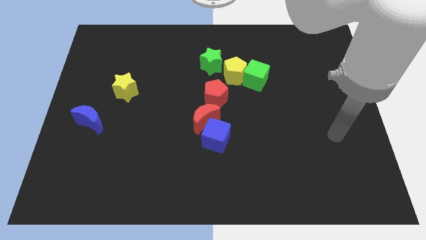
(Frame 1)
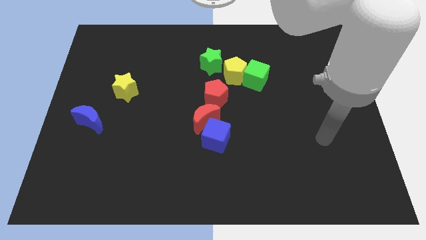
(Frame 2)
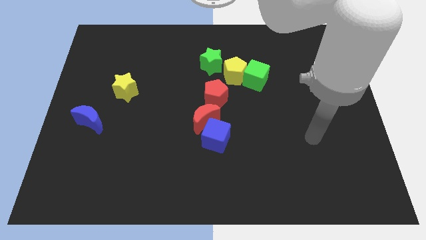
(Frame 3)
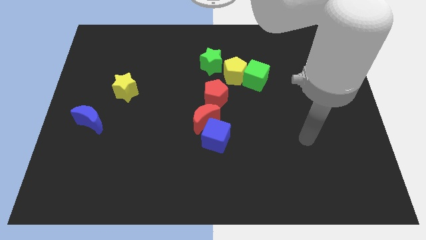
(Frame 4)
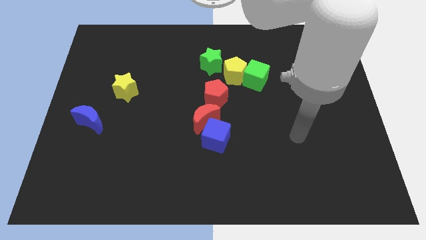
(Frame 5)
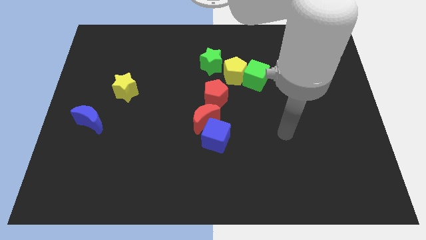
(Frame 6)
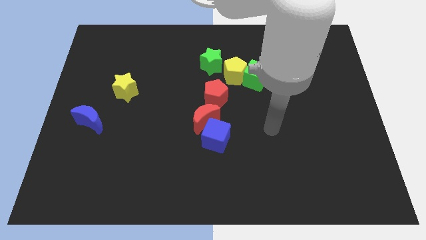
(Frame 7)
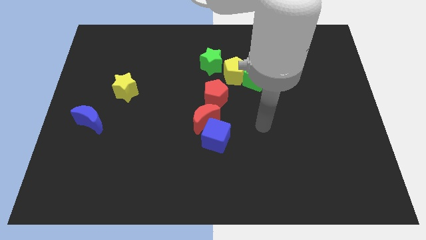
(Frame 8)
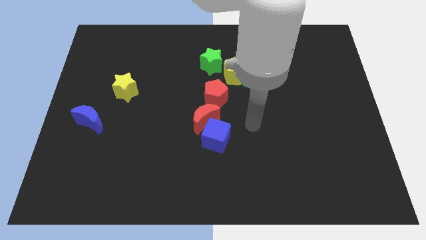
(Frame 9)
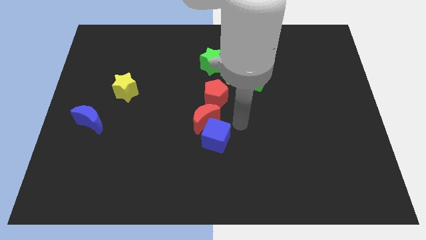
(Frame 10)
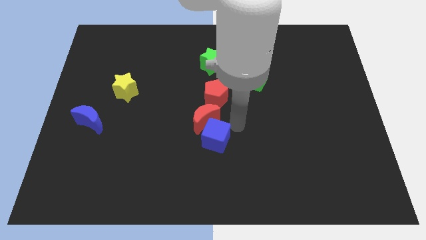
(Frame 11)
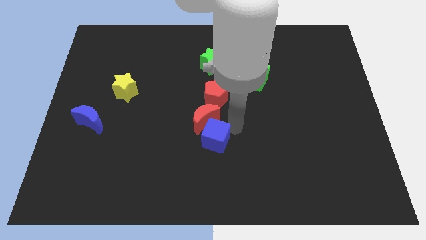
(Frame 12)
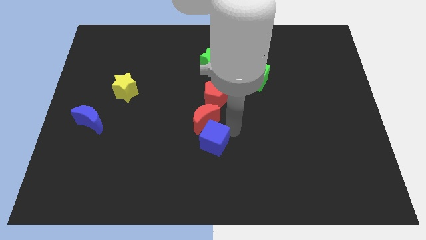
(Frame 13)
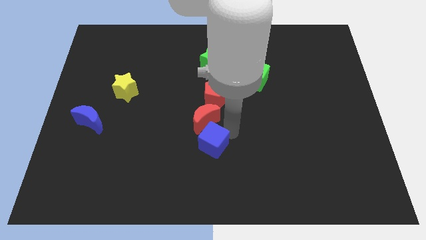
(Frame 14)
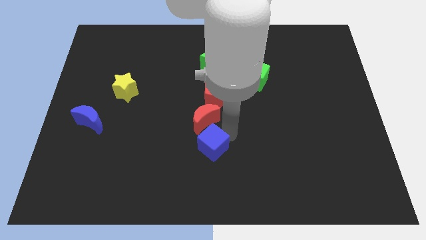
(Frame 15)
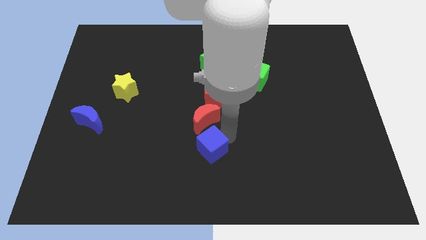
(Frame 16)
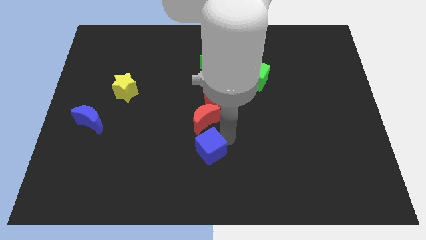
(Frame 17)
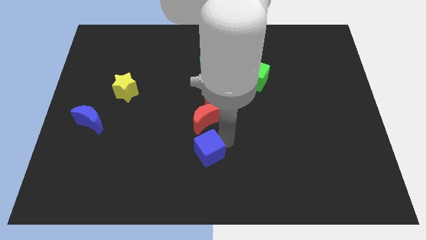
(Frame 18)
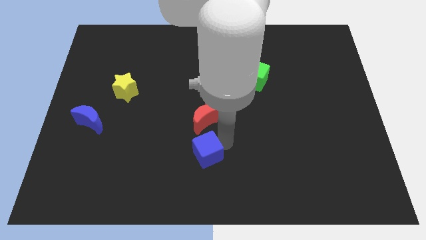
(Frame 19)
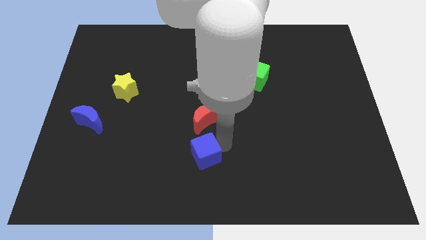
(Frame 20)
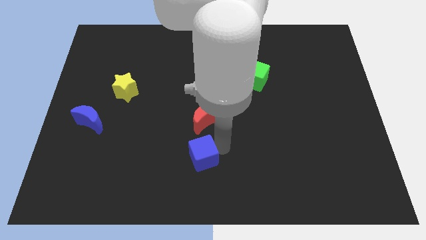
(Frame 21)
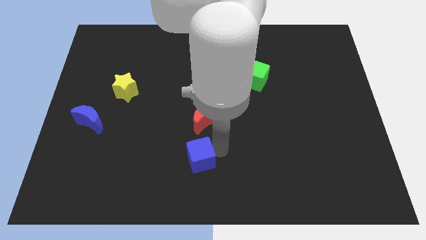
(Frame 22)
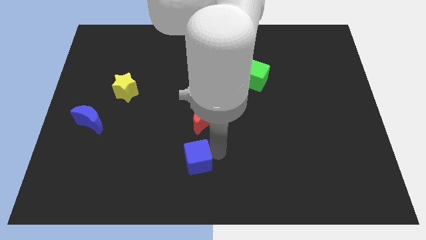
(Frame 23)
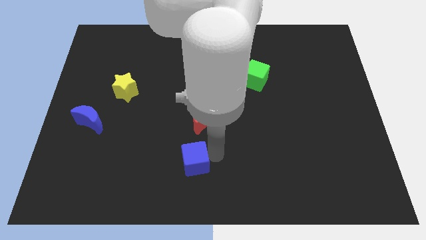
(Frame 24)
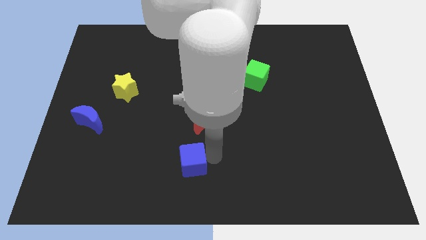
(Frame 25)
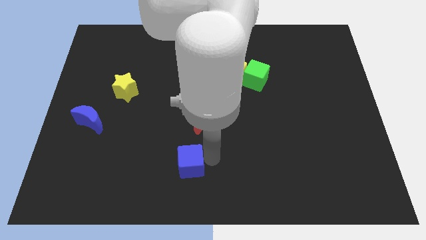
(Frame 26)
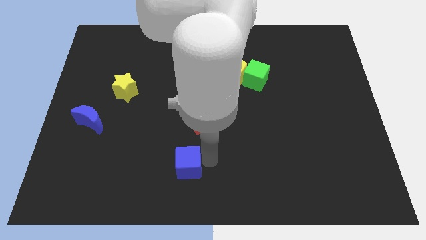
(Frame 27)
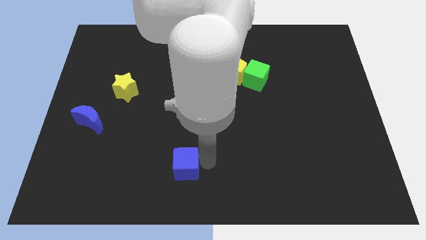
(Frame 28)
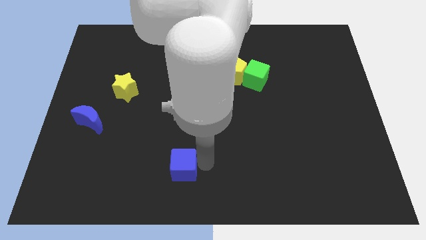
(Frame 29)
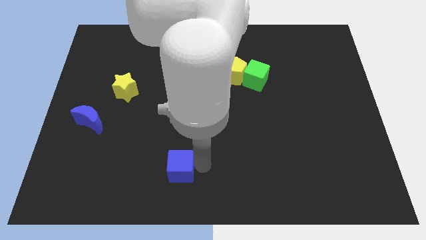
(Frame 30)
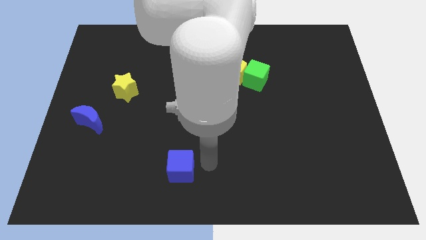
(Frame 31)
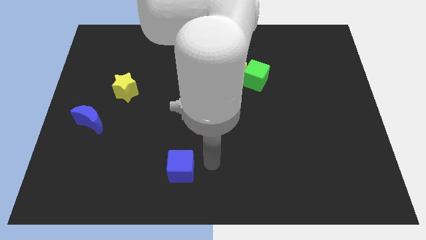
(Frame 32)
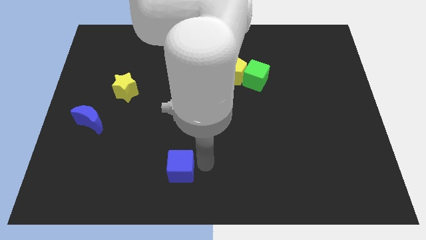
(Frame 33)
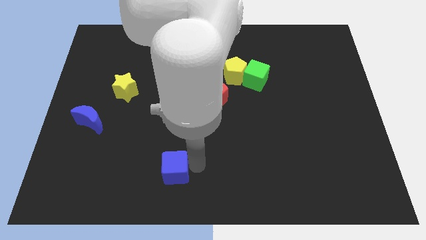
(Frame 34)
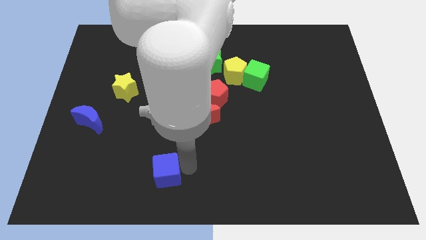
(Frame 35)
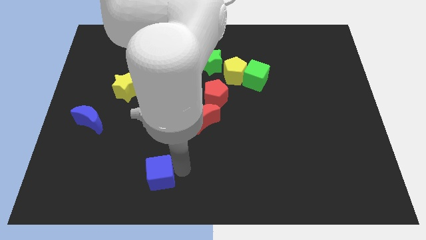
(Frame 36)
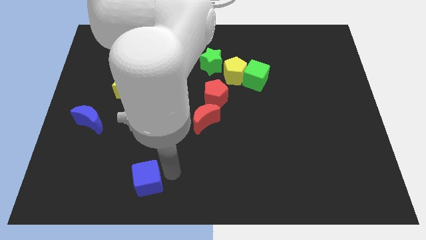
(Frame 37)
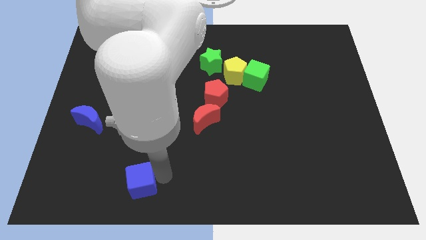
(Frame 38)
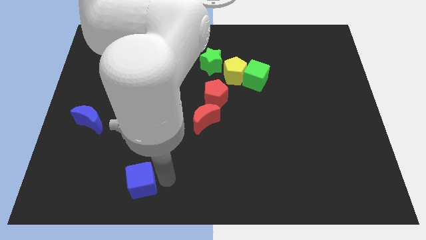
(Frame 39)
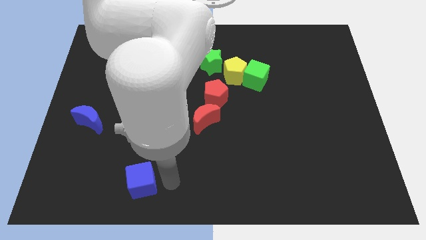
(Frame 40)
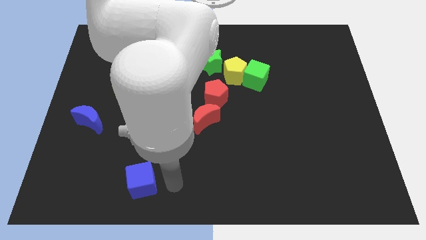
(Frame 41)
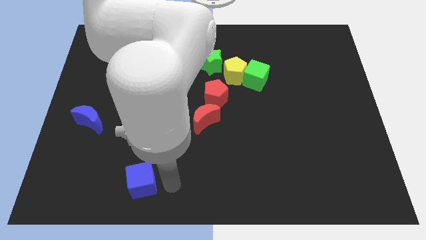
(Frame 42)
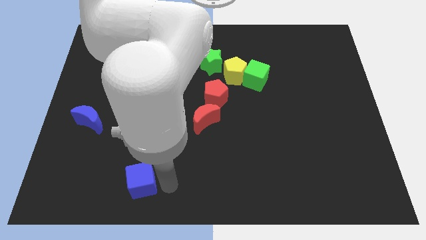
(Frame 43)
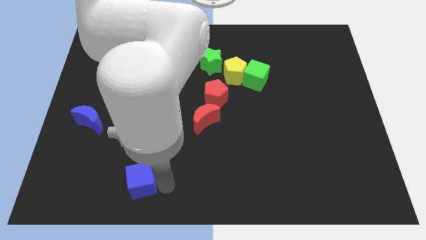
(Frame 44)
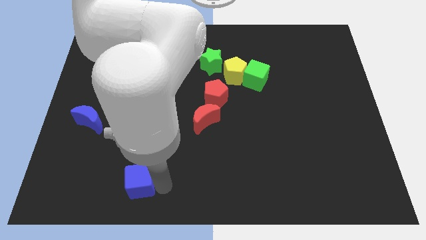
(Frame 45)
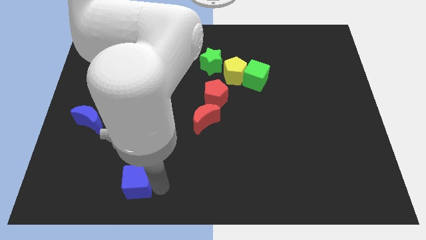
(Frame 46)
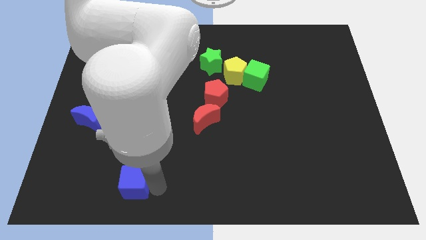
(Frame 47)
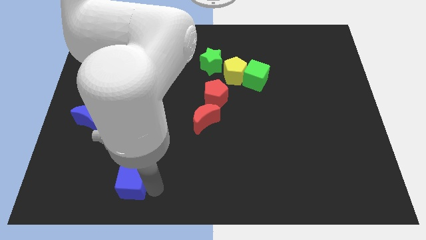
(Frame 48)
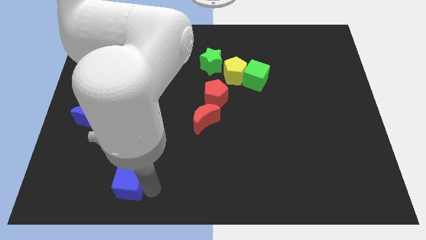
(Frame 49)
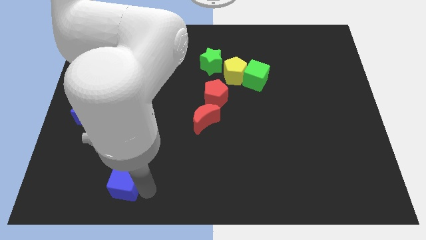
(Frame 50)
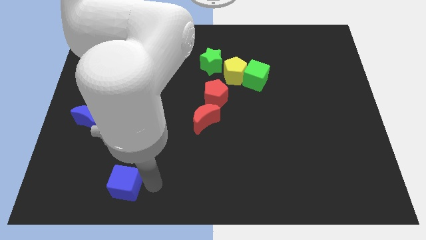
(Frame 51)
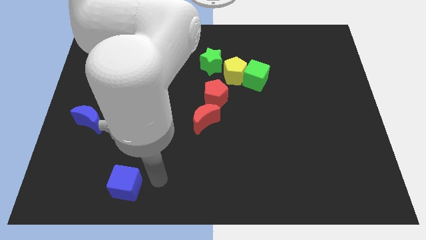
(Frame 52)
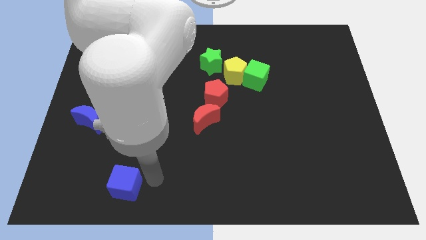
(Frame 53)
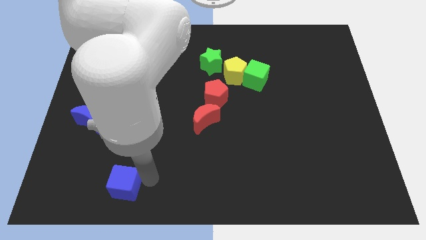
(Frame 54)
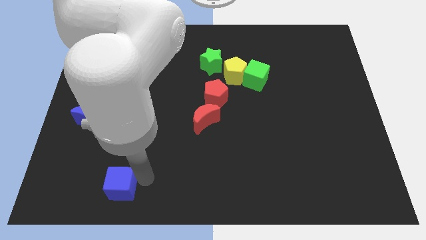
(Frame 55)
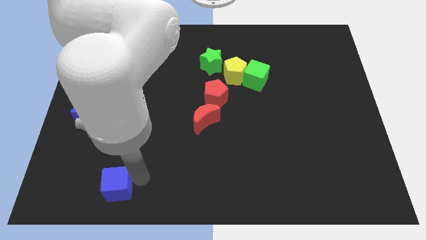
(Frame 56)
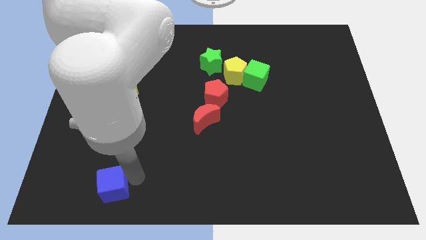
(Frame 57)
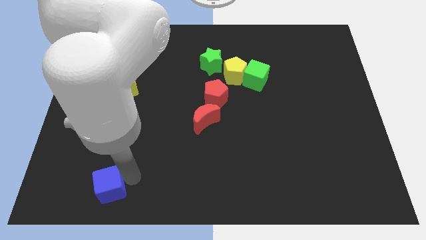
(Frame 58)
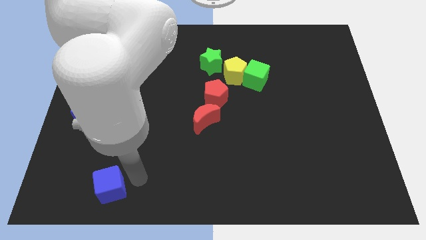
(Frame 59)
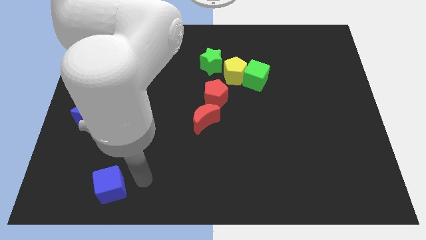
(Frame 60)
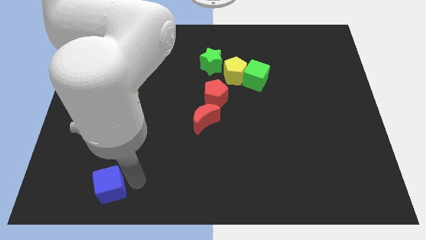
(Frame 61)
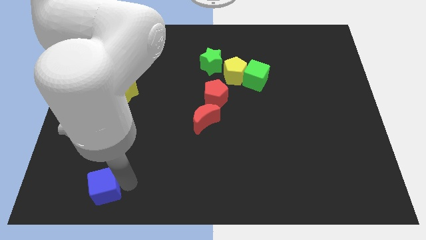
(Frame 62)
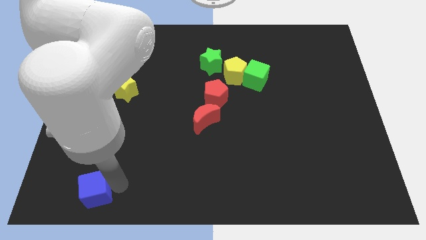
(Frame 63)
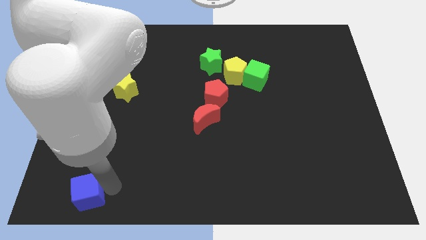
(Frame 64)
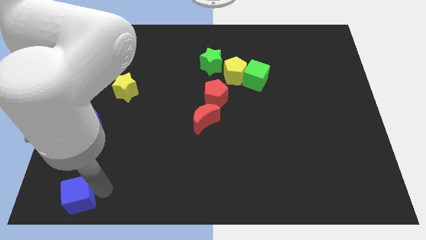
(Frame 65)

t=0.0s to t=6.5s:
push the blue cube to the bottom left corner
